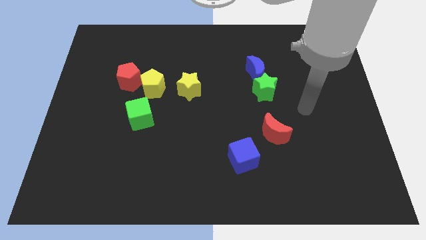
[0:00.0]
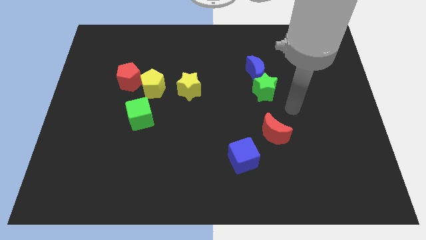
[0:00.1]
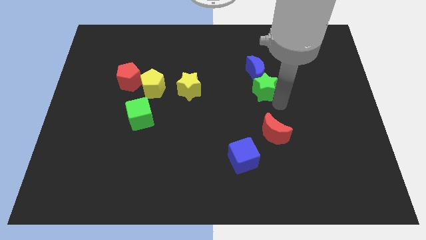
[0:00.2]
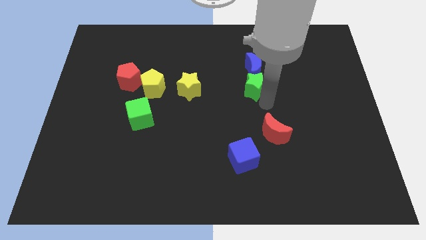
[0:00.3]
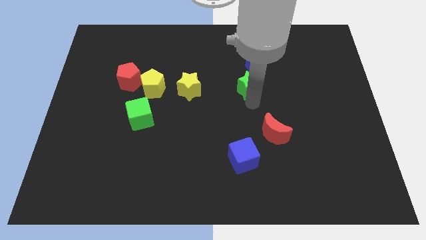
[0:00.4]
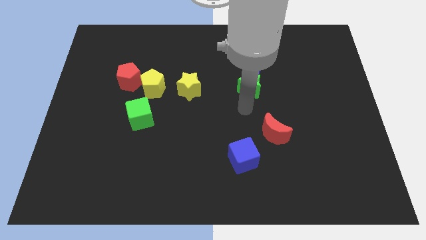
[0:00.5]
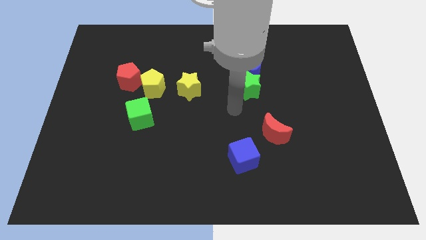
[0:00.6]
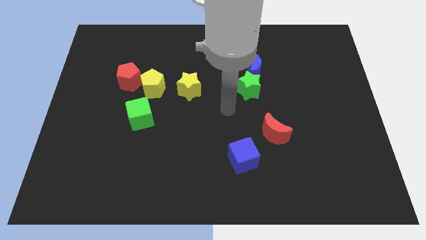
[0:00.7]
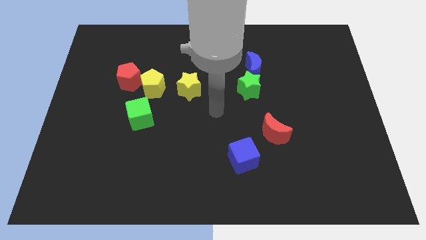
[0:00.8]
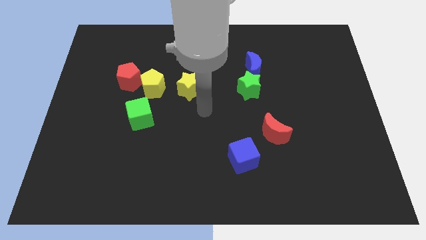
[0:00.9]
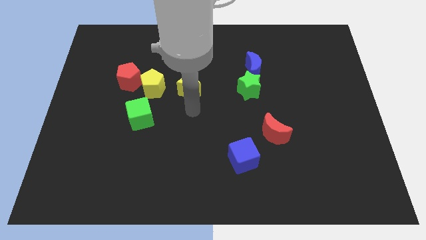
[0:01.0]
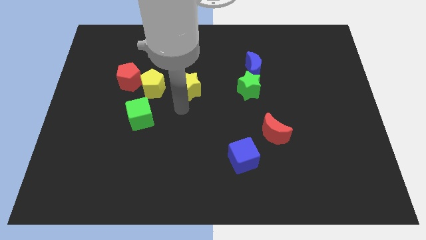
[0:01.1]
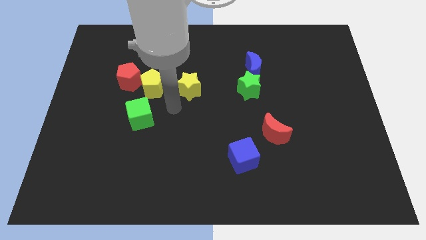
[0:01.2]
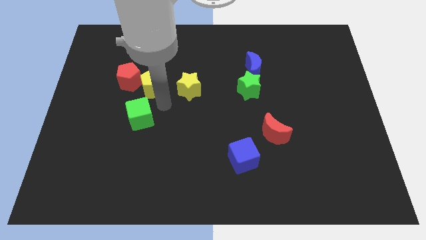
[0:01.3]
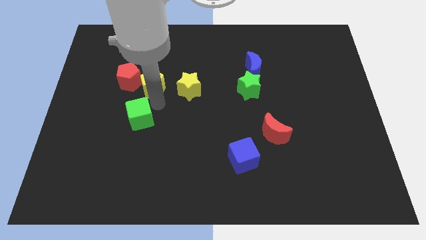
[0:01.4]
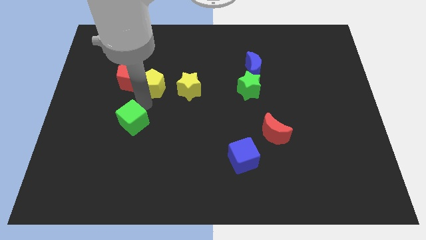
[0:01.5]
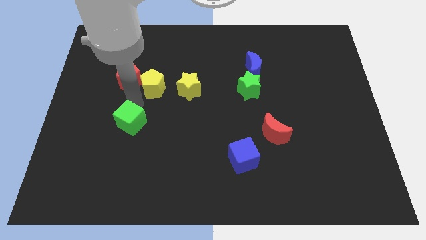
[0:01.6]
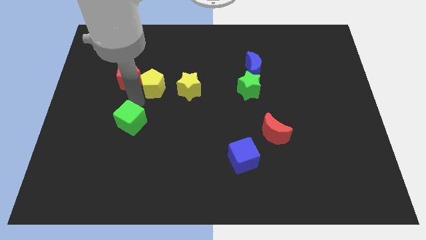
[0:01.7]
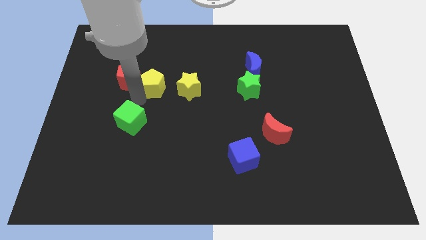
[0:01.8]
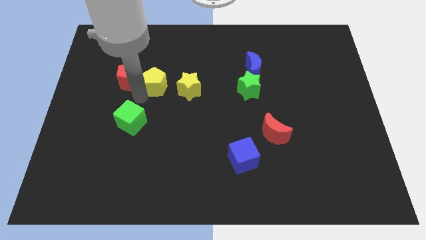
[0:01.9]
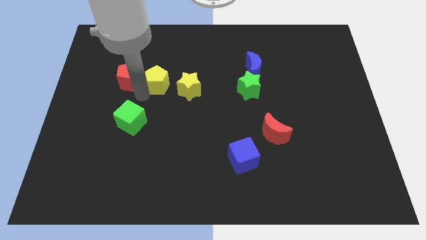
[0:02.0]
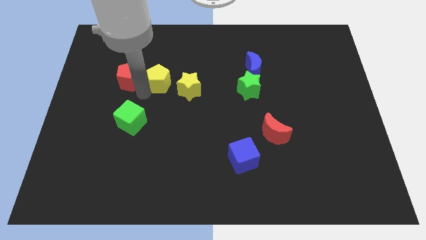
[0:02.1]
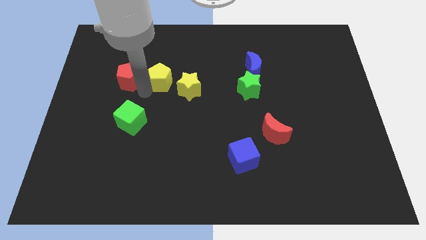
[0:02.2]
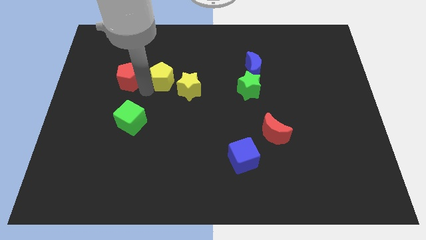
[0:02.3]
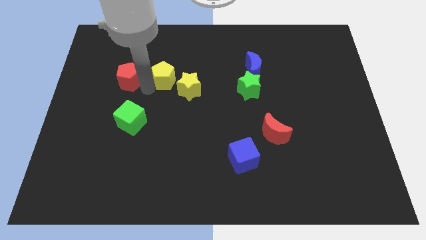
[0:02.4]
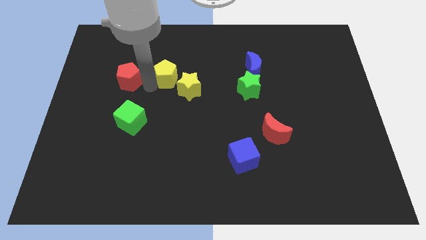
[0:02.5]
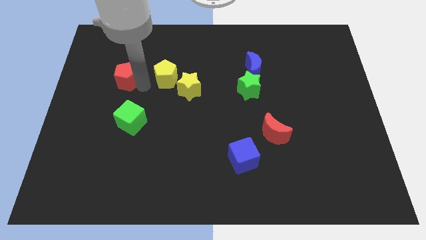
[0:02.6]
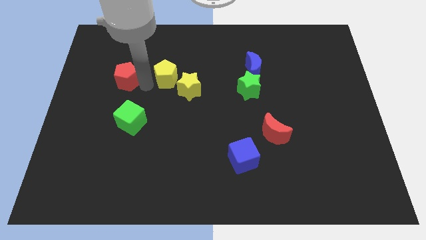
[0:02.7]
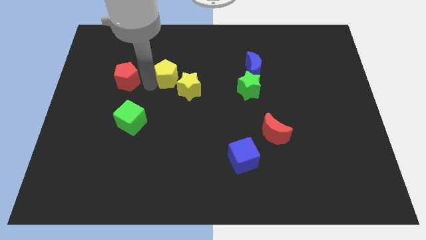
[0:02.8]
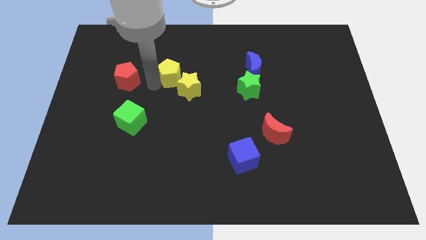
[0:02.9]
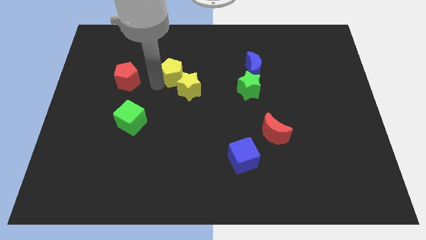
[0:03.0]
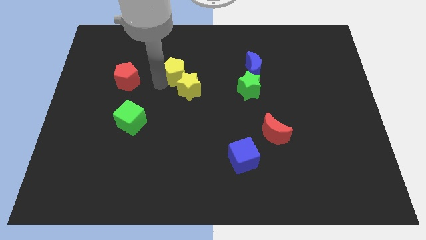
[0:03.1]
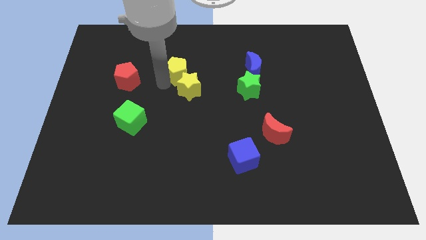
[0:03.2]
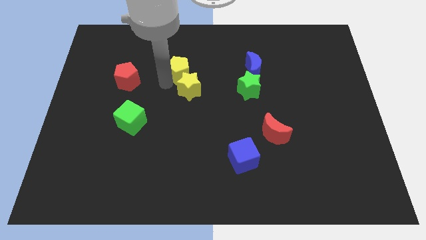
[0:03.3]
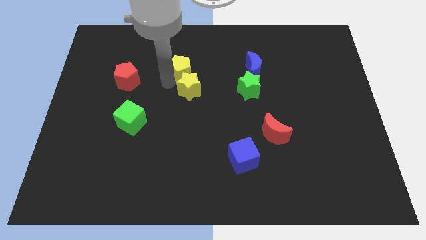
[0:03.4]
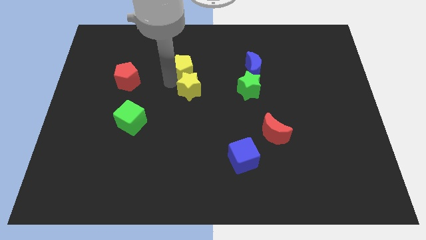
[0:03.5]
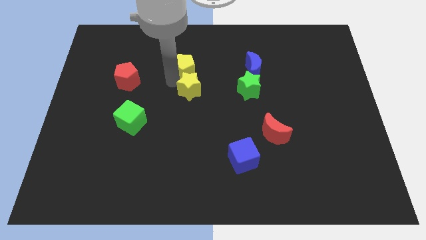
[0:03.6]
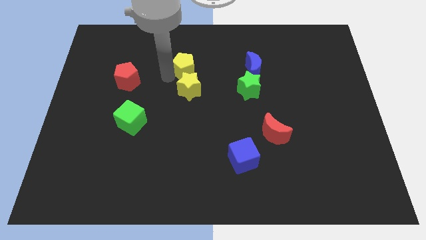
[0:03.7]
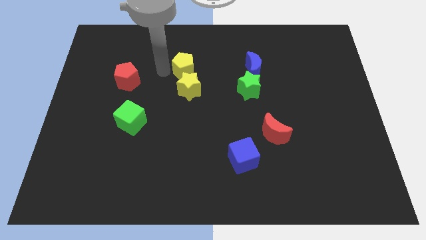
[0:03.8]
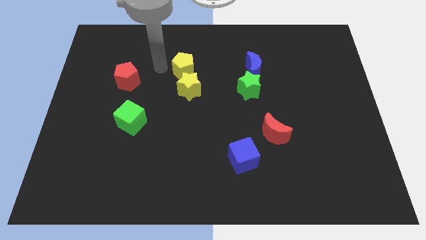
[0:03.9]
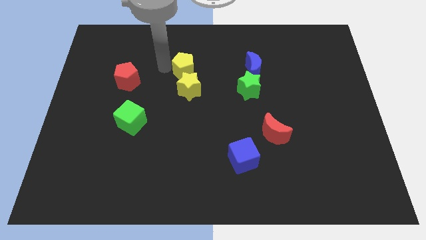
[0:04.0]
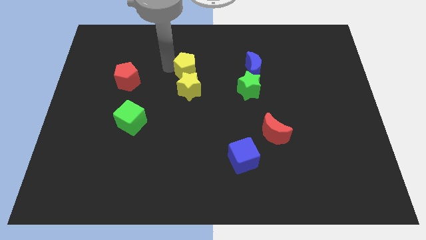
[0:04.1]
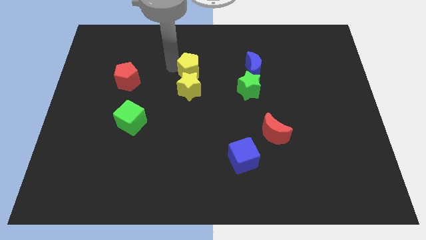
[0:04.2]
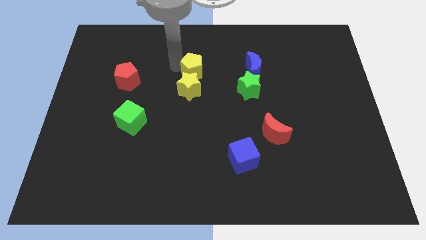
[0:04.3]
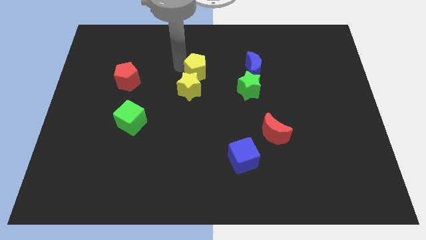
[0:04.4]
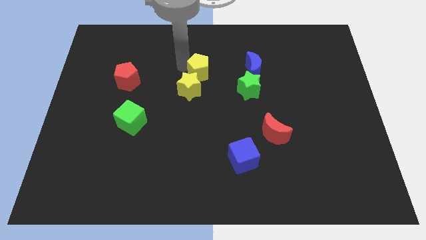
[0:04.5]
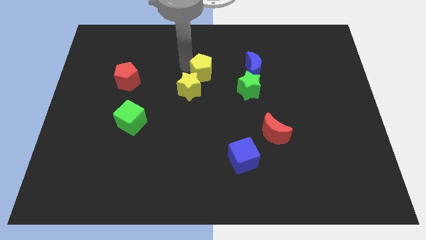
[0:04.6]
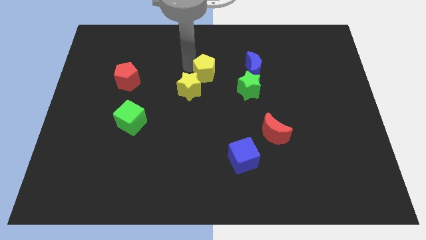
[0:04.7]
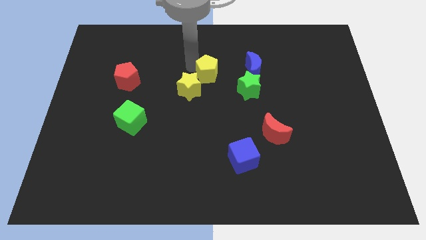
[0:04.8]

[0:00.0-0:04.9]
put the yellow pentagon to the top left of the green star

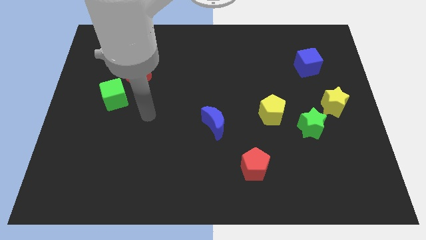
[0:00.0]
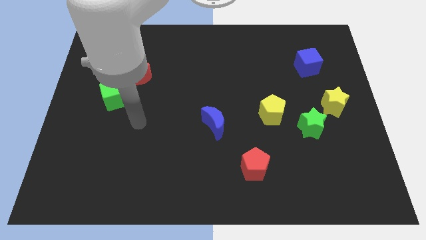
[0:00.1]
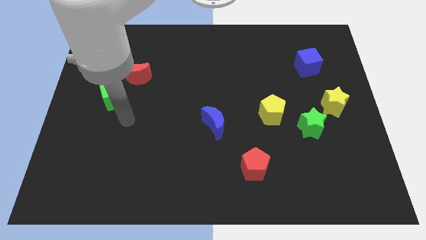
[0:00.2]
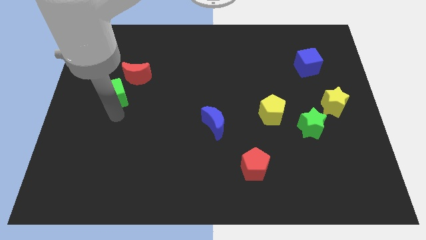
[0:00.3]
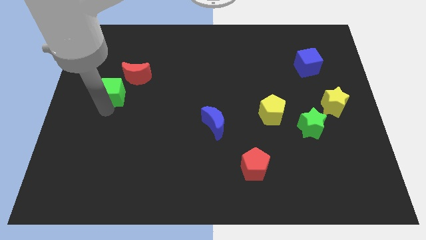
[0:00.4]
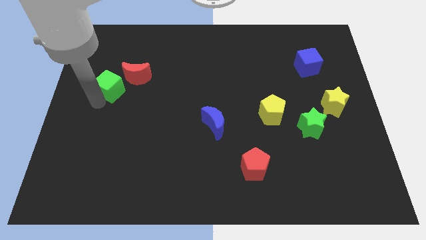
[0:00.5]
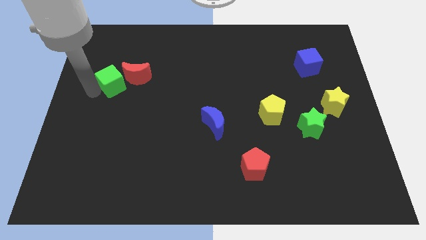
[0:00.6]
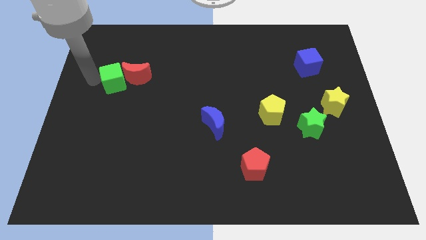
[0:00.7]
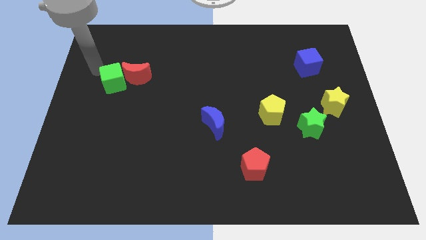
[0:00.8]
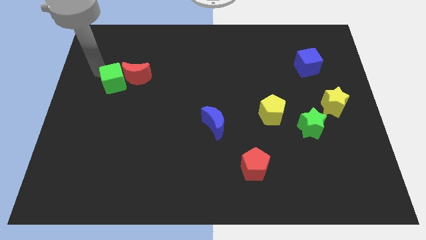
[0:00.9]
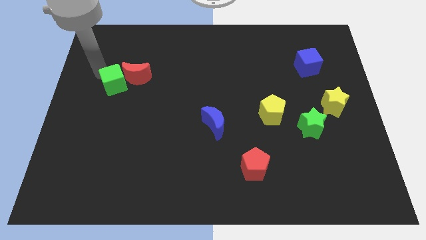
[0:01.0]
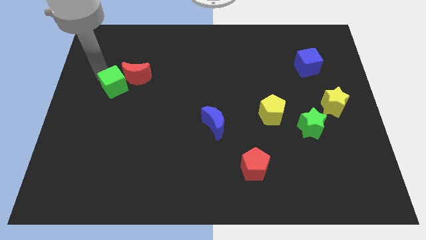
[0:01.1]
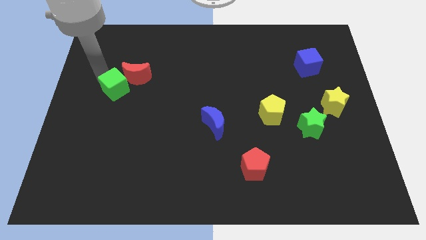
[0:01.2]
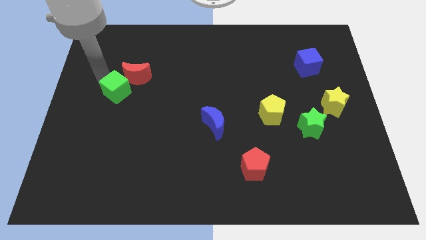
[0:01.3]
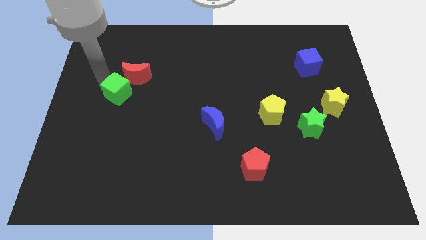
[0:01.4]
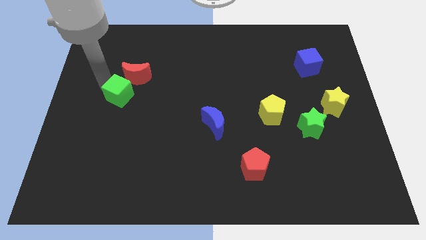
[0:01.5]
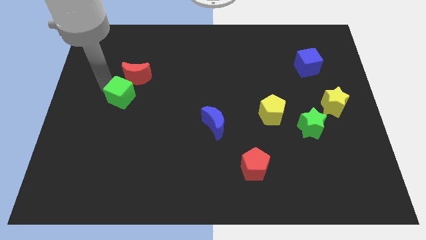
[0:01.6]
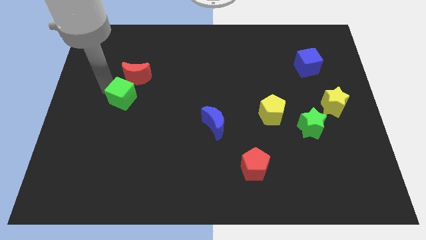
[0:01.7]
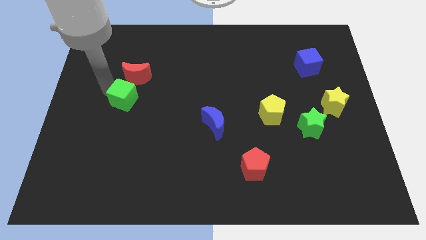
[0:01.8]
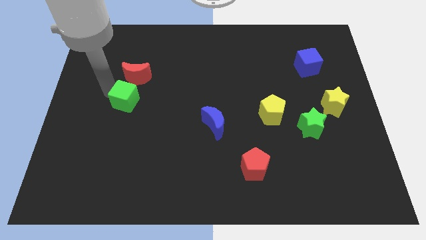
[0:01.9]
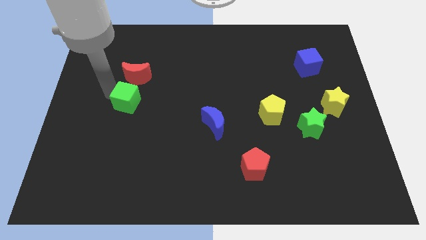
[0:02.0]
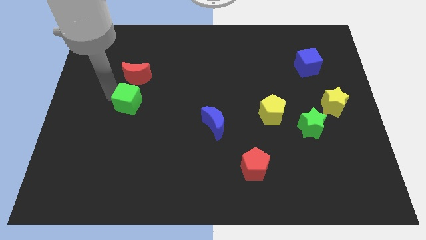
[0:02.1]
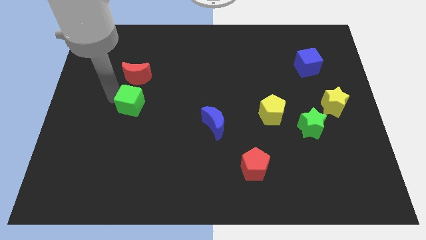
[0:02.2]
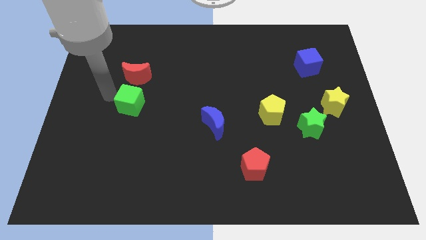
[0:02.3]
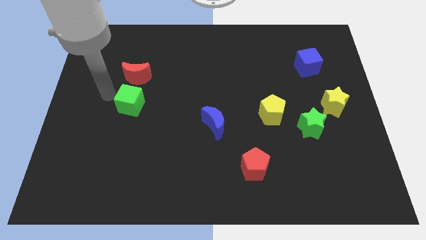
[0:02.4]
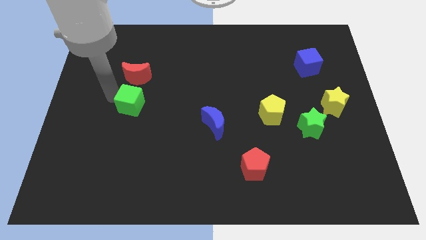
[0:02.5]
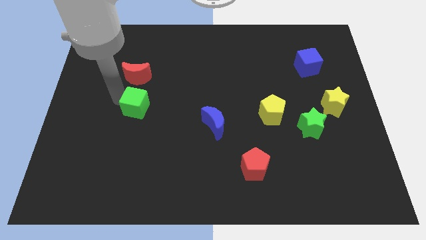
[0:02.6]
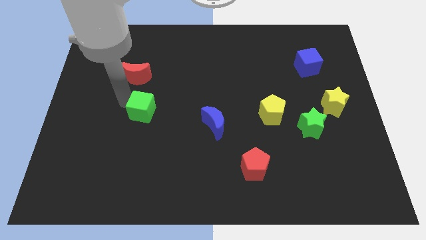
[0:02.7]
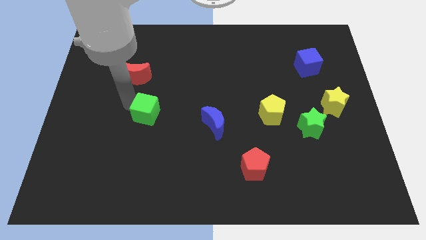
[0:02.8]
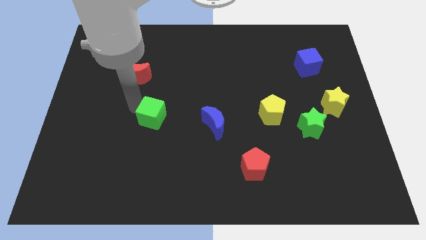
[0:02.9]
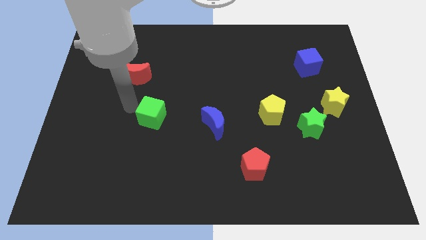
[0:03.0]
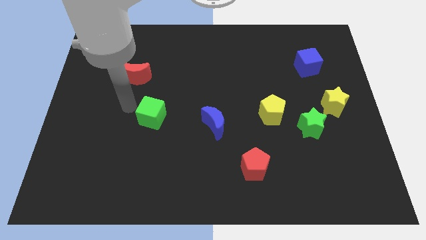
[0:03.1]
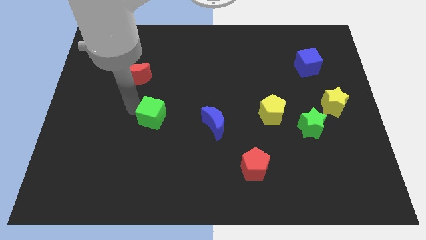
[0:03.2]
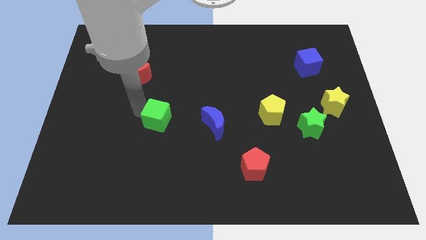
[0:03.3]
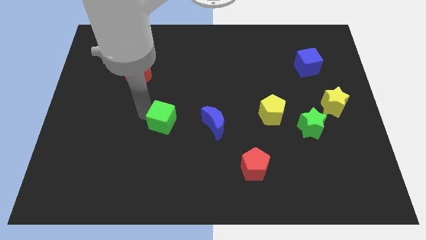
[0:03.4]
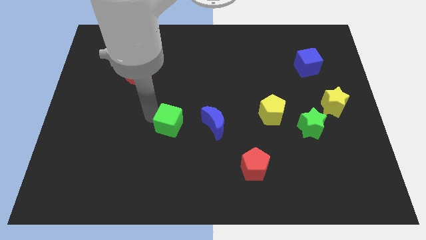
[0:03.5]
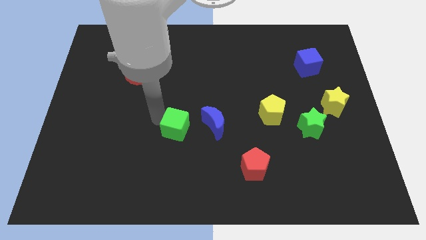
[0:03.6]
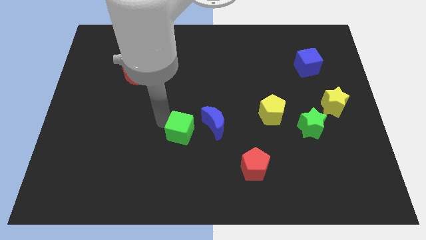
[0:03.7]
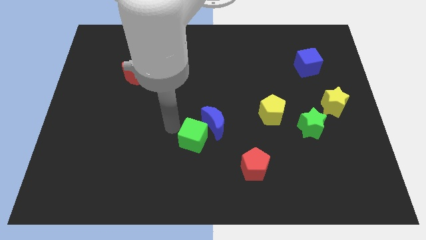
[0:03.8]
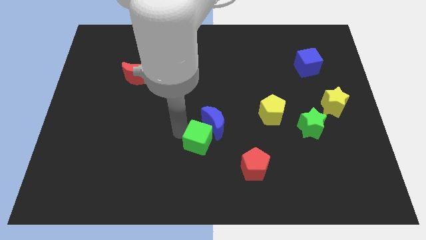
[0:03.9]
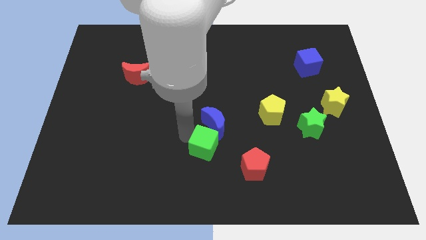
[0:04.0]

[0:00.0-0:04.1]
push the green cube to the top left side of the red pentagon
